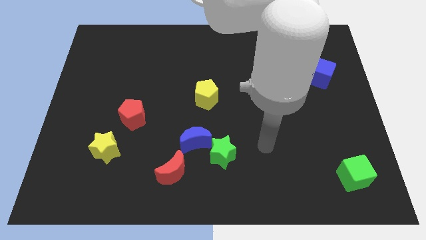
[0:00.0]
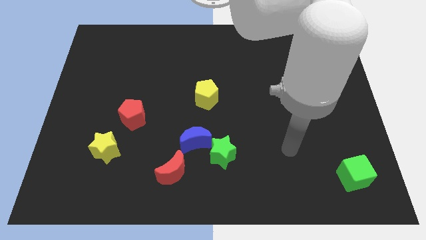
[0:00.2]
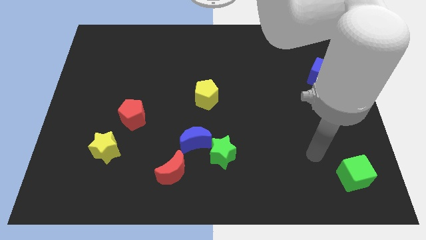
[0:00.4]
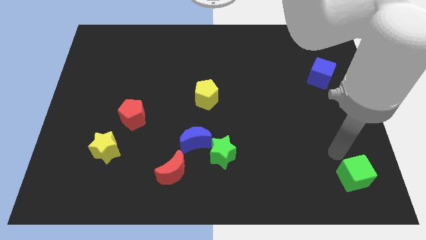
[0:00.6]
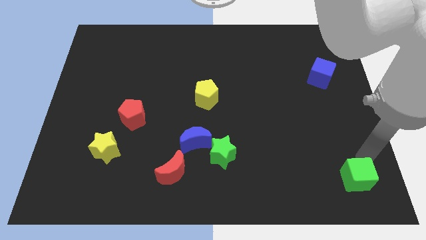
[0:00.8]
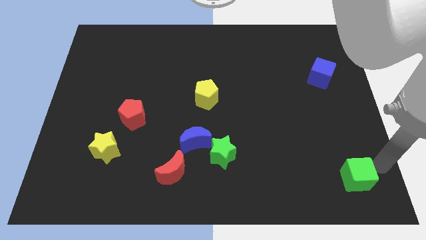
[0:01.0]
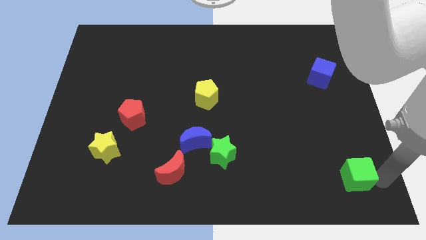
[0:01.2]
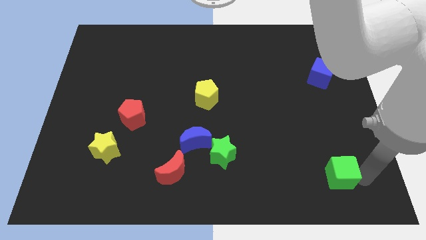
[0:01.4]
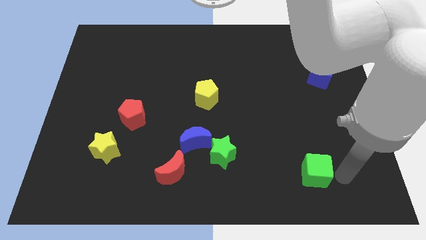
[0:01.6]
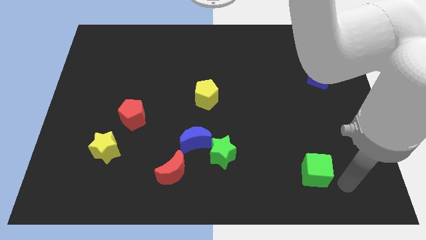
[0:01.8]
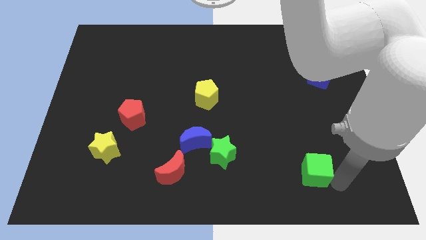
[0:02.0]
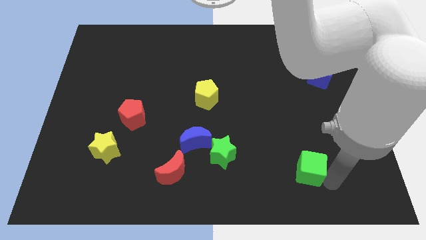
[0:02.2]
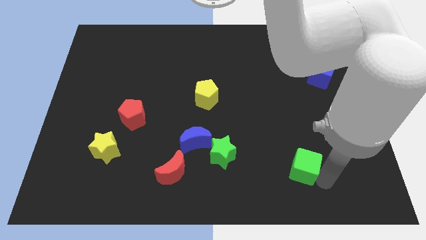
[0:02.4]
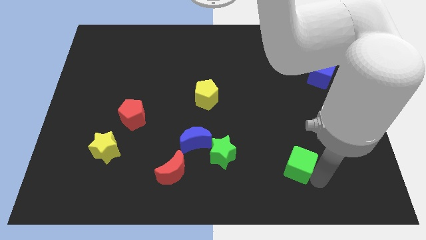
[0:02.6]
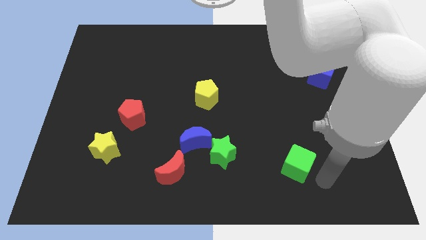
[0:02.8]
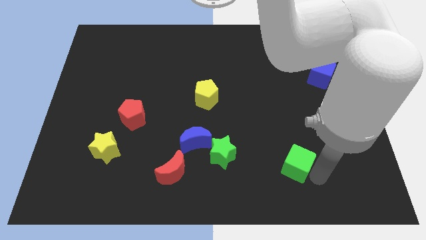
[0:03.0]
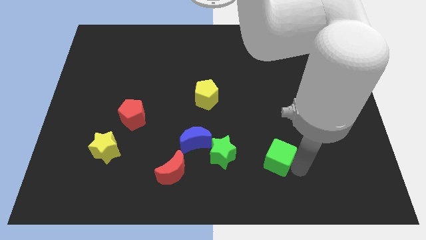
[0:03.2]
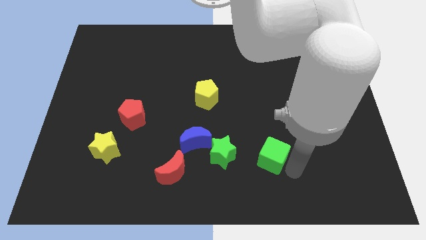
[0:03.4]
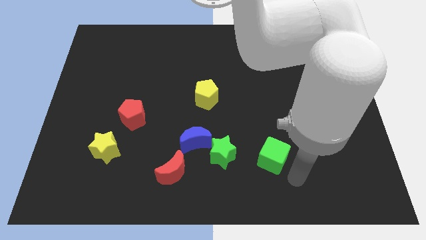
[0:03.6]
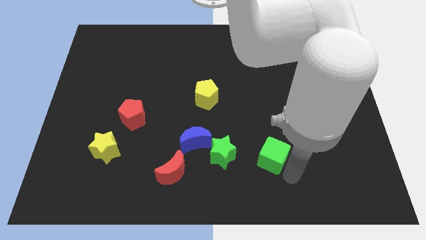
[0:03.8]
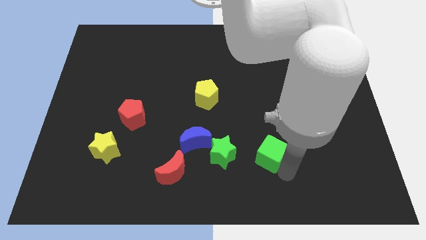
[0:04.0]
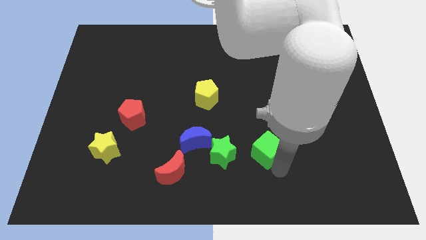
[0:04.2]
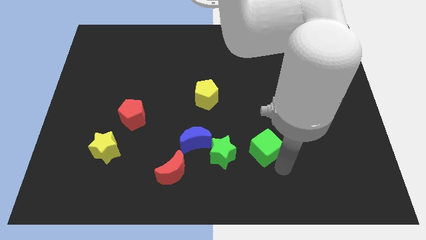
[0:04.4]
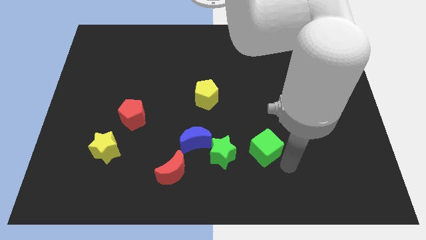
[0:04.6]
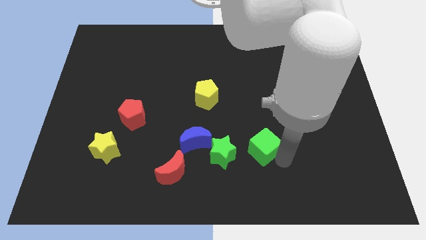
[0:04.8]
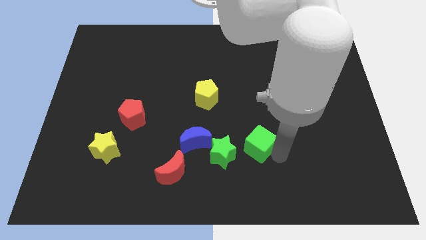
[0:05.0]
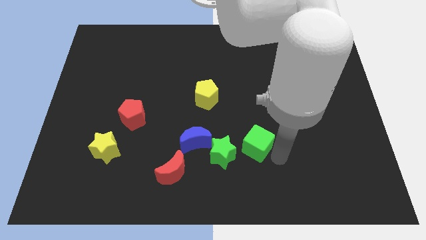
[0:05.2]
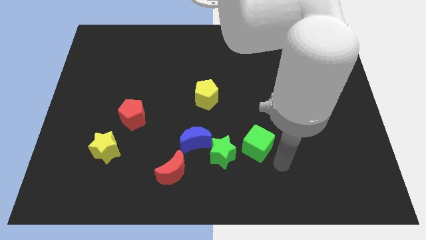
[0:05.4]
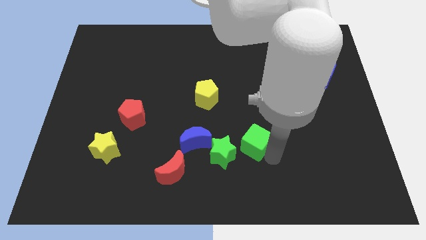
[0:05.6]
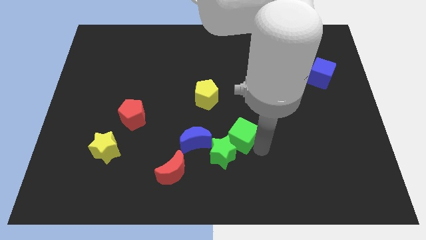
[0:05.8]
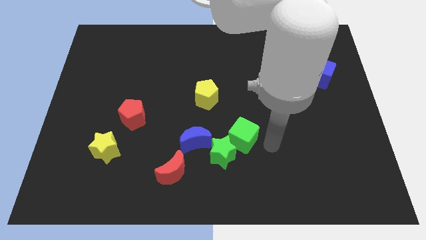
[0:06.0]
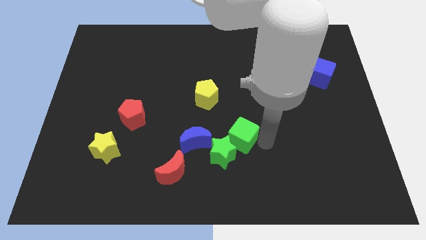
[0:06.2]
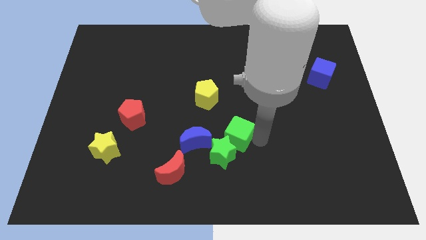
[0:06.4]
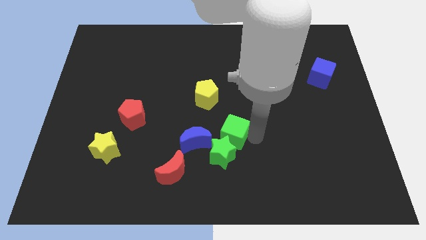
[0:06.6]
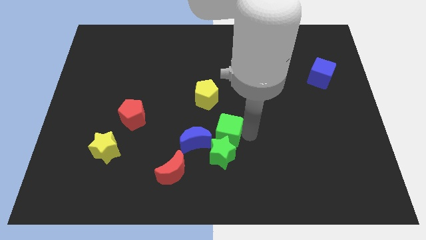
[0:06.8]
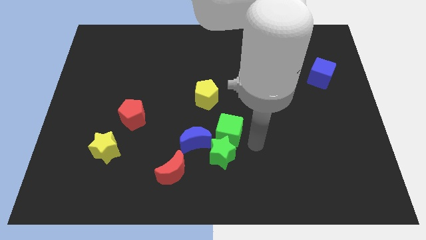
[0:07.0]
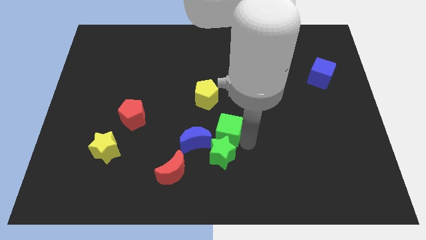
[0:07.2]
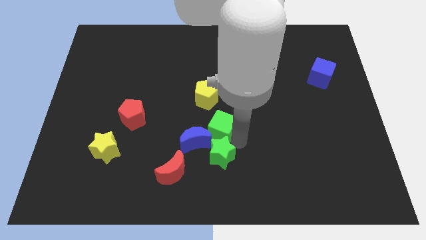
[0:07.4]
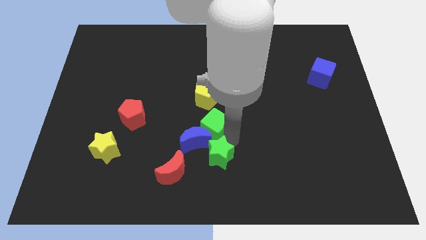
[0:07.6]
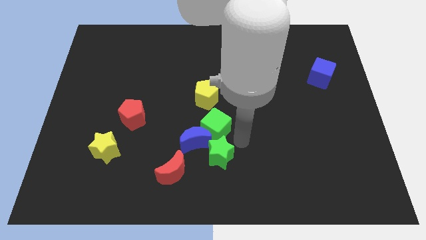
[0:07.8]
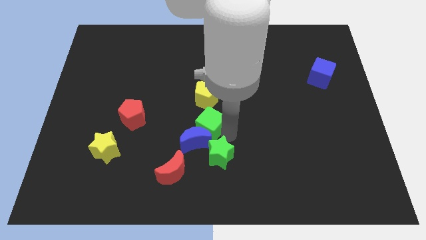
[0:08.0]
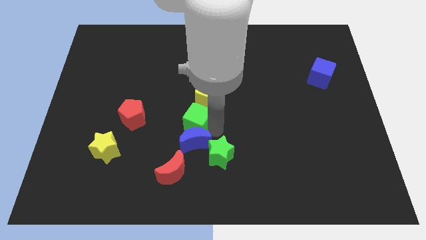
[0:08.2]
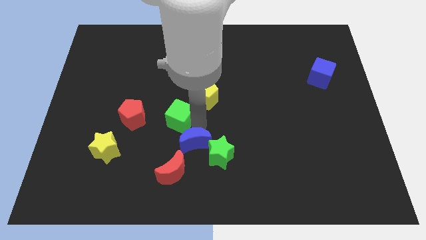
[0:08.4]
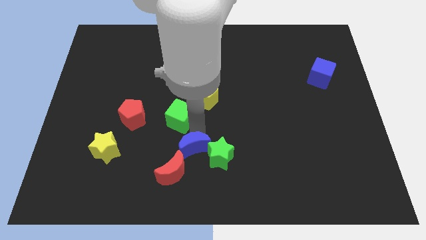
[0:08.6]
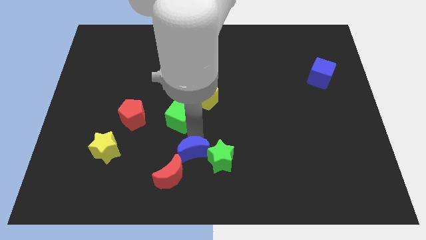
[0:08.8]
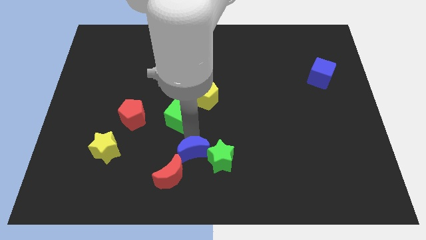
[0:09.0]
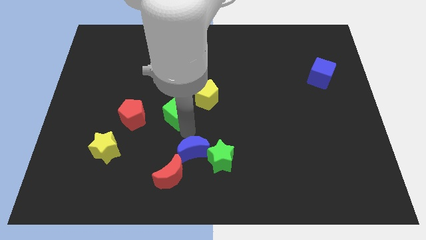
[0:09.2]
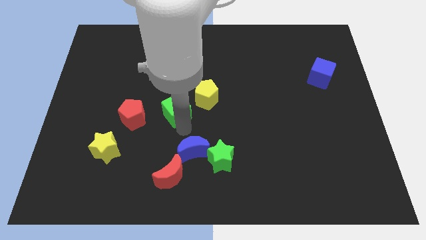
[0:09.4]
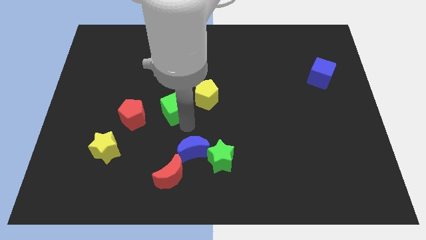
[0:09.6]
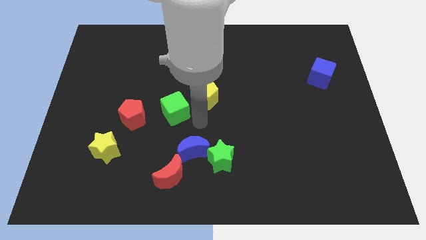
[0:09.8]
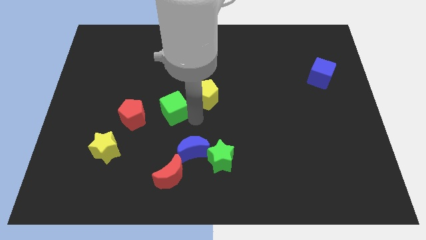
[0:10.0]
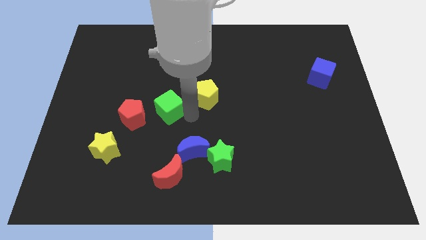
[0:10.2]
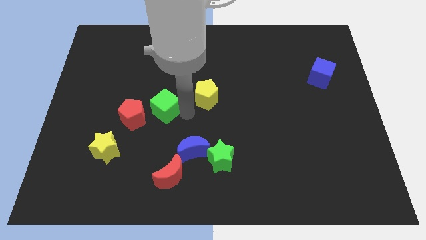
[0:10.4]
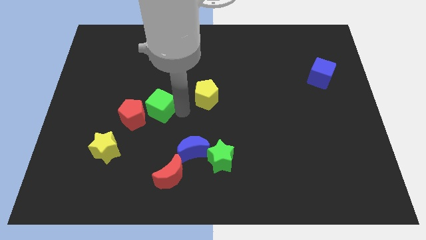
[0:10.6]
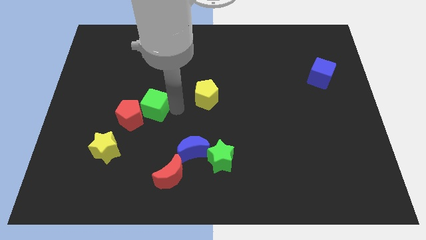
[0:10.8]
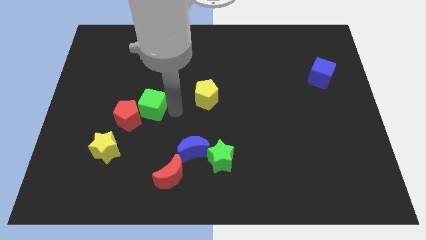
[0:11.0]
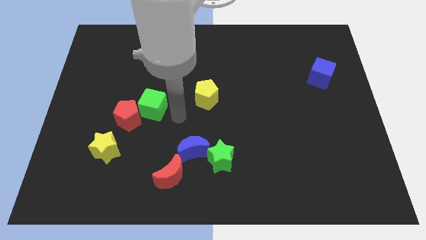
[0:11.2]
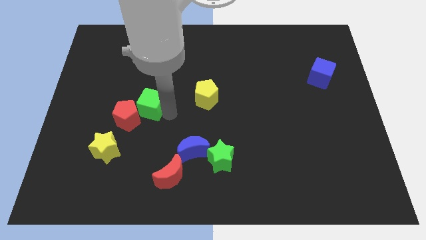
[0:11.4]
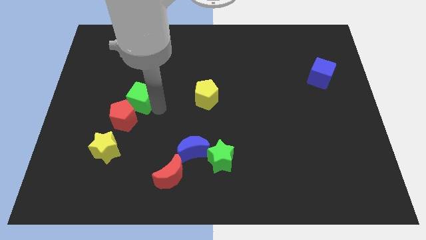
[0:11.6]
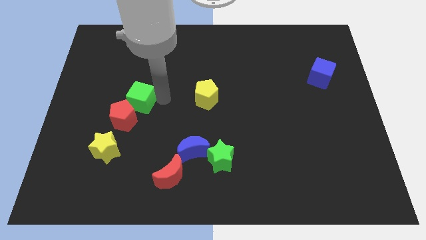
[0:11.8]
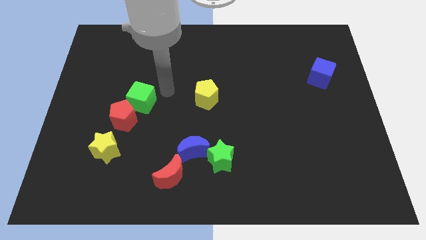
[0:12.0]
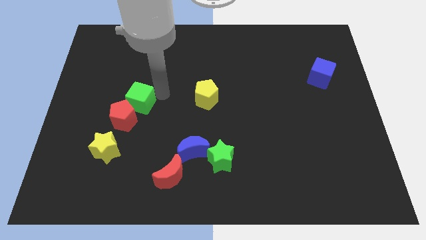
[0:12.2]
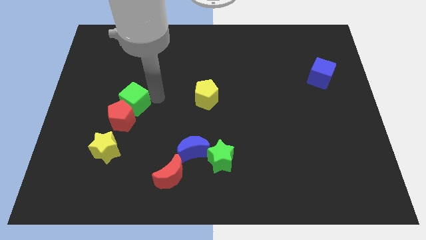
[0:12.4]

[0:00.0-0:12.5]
move the green cube to the top of the yellow star

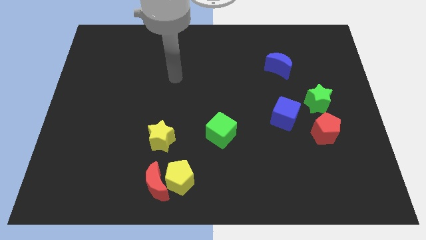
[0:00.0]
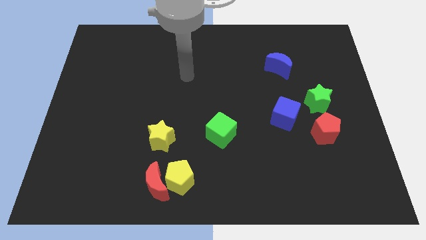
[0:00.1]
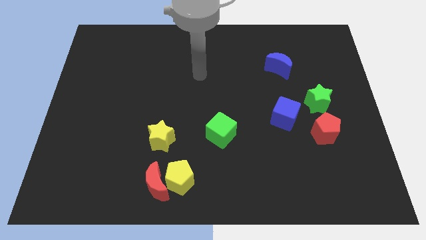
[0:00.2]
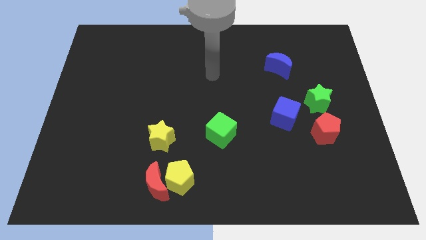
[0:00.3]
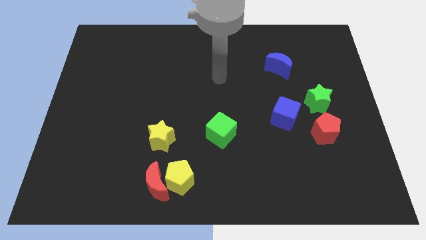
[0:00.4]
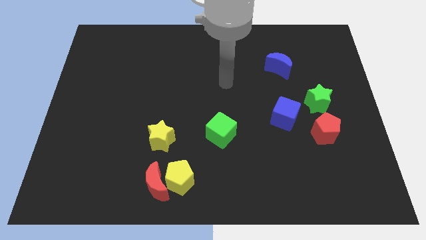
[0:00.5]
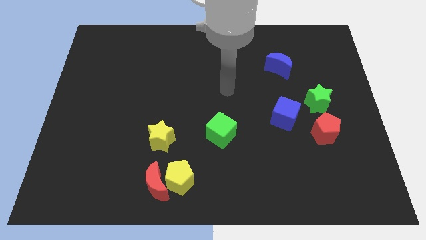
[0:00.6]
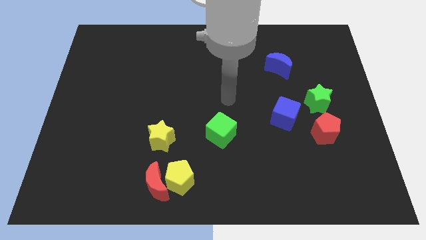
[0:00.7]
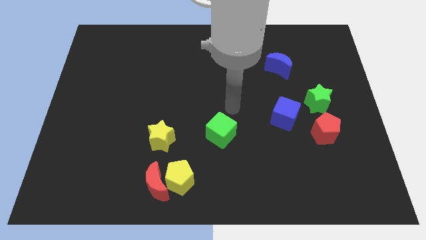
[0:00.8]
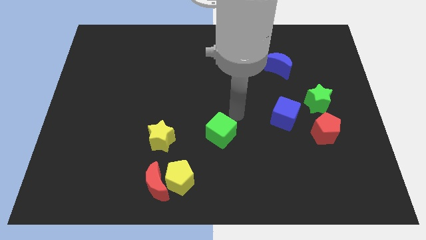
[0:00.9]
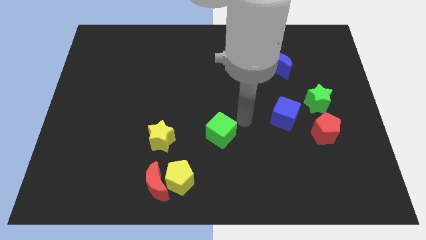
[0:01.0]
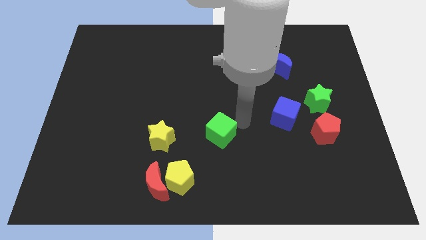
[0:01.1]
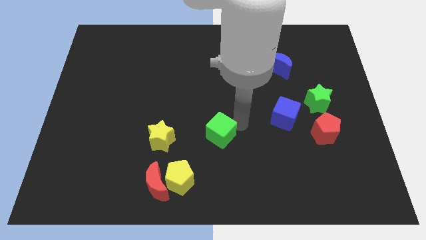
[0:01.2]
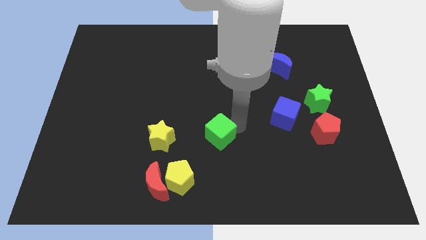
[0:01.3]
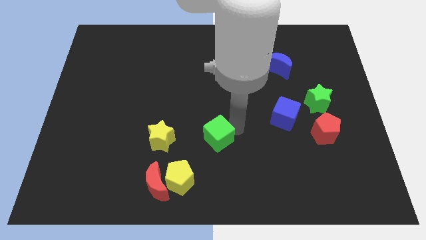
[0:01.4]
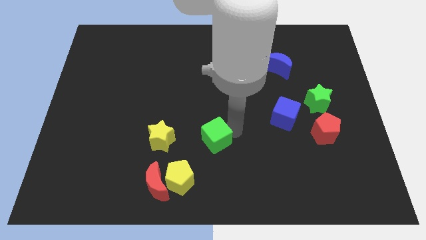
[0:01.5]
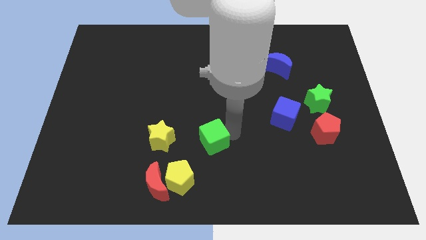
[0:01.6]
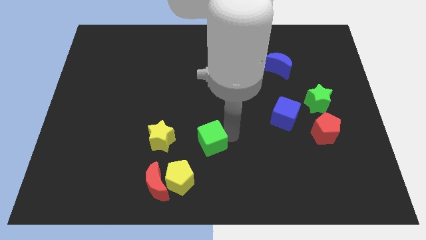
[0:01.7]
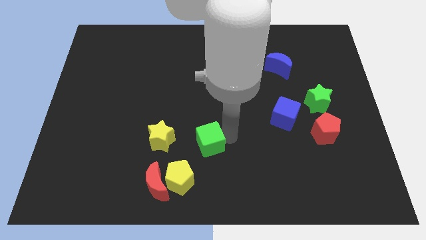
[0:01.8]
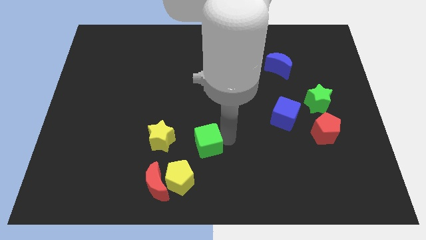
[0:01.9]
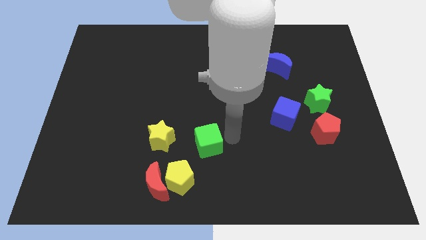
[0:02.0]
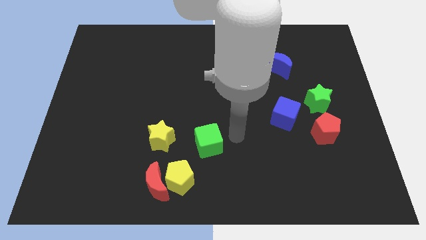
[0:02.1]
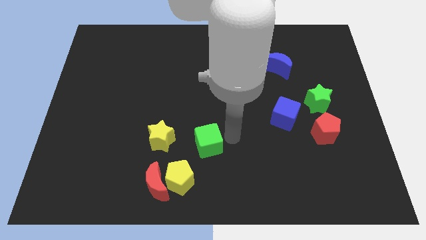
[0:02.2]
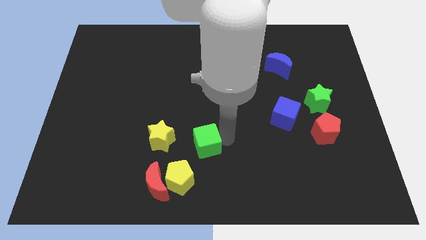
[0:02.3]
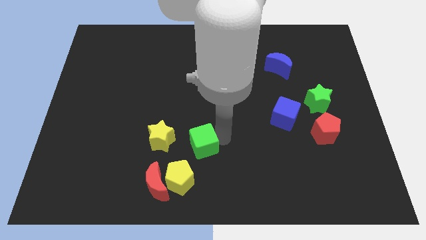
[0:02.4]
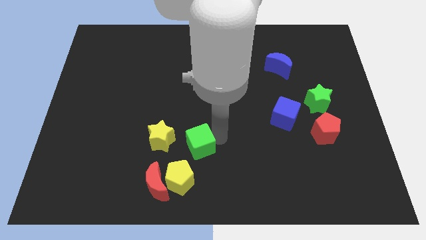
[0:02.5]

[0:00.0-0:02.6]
move the green cube to the top right side of the red moon
